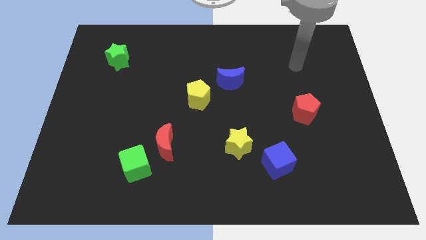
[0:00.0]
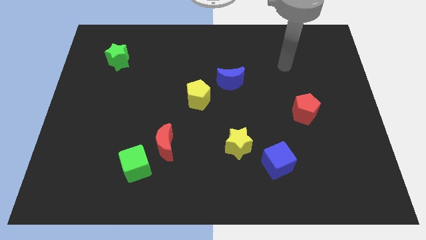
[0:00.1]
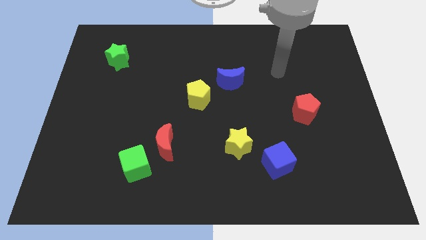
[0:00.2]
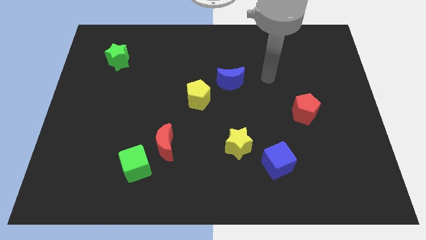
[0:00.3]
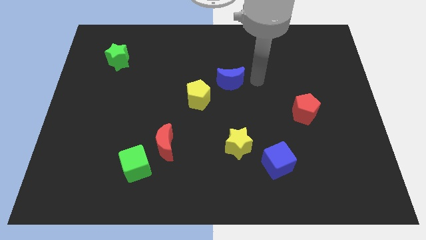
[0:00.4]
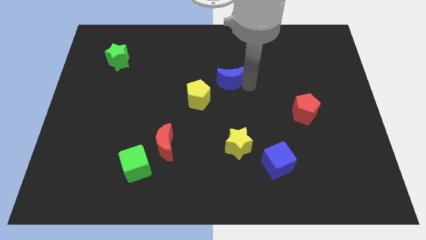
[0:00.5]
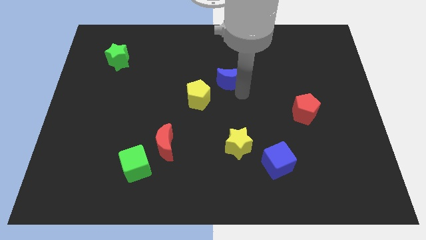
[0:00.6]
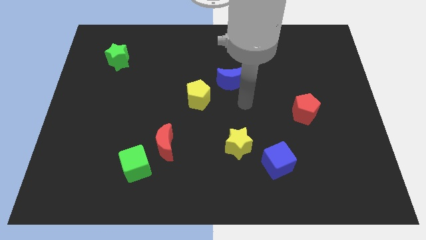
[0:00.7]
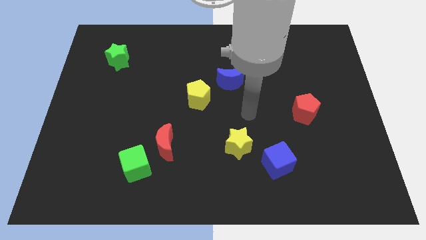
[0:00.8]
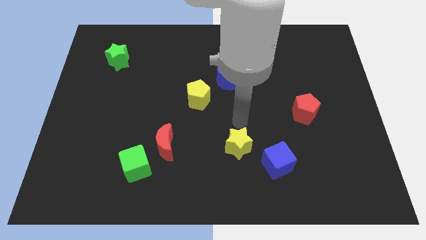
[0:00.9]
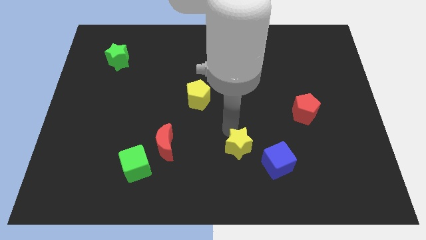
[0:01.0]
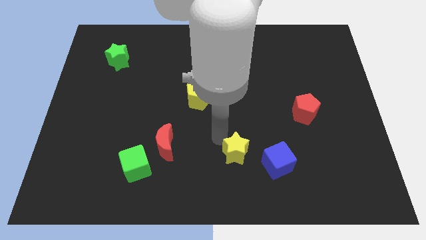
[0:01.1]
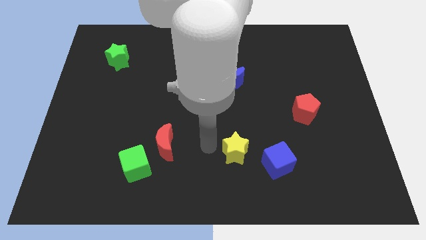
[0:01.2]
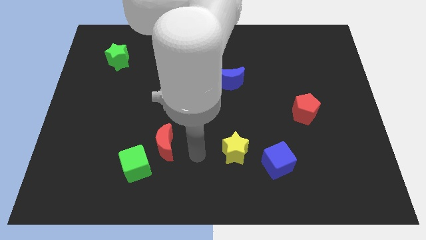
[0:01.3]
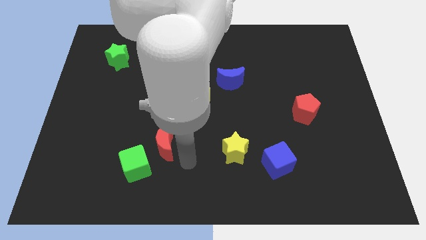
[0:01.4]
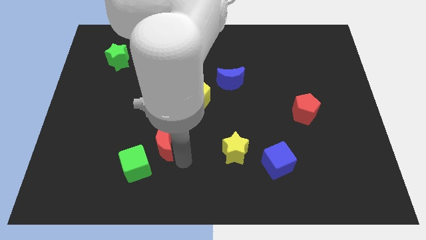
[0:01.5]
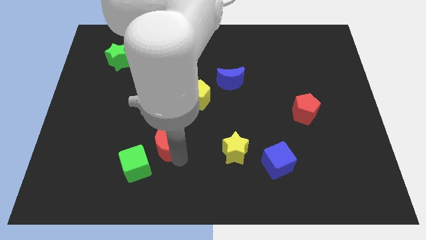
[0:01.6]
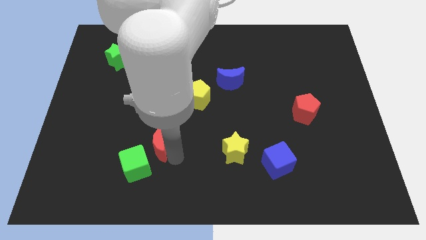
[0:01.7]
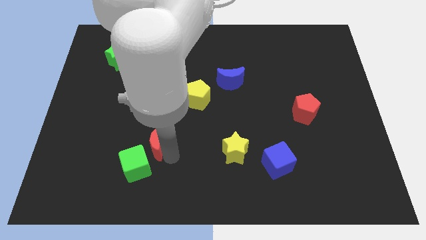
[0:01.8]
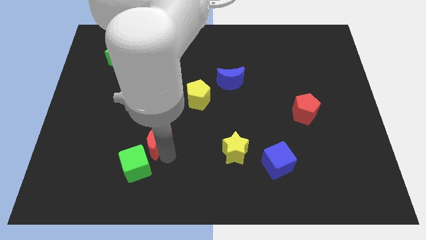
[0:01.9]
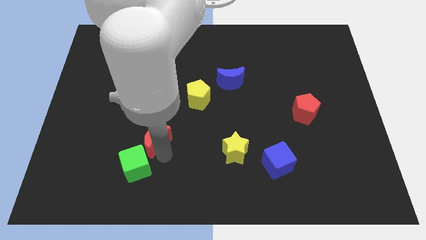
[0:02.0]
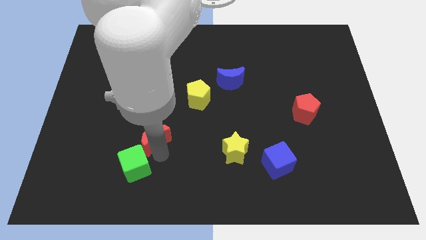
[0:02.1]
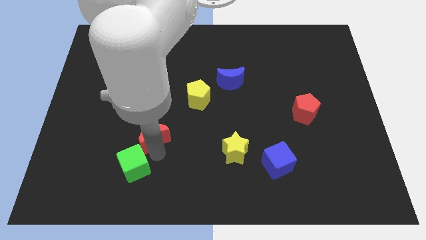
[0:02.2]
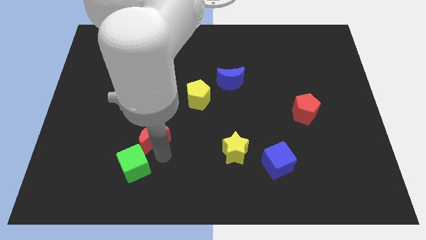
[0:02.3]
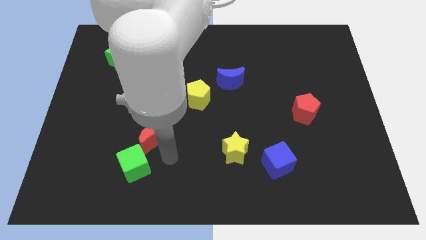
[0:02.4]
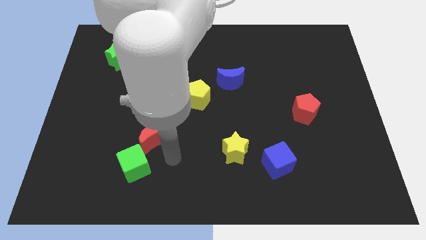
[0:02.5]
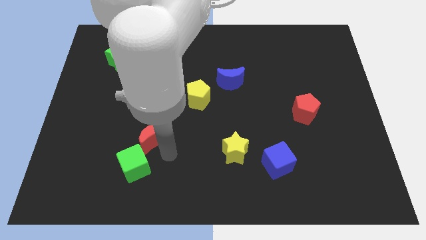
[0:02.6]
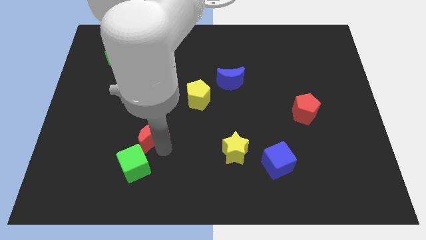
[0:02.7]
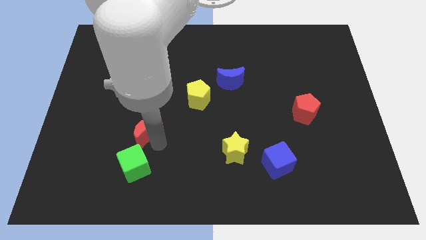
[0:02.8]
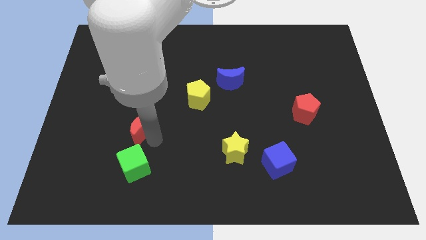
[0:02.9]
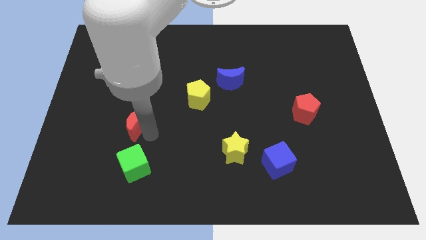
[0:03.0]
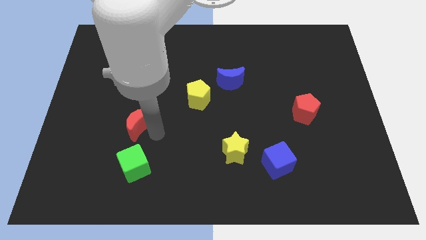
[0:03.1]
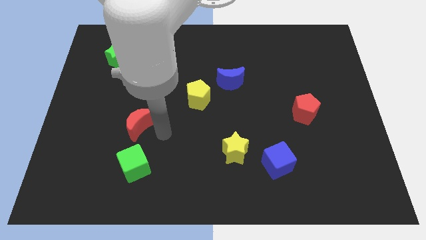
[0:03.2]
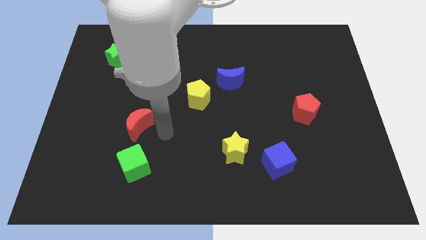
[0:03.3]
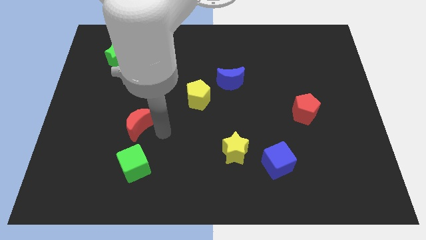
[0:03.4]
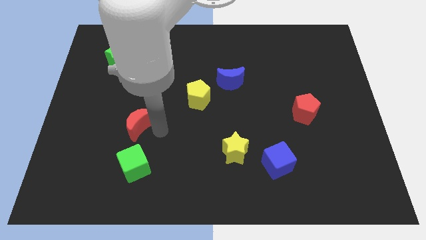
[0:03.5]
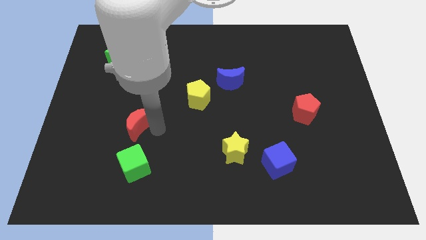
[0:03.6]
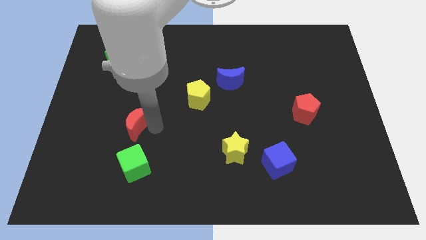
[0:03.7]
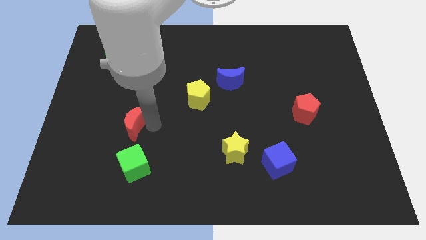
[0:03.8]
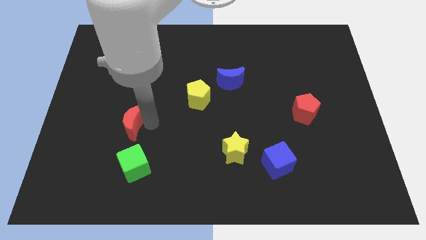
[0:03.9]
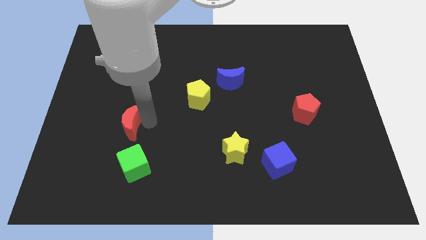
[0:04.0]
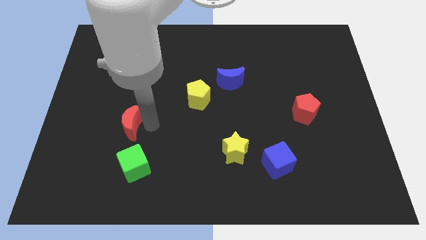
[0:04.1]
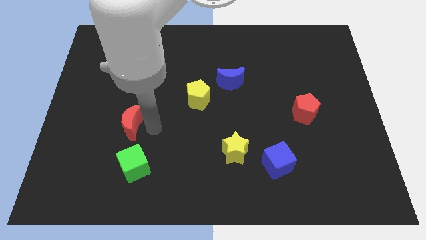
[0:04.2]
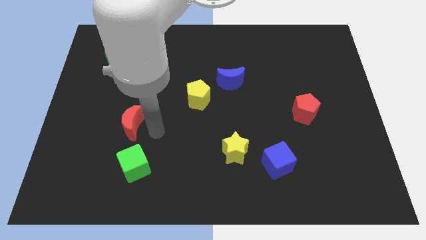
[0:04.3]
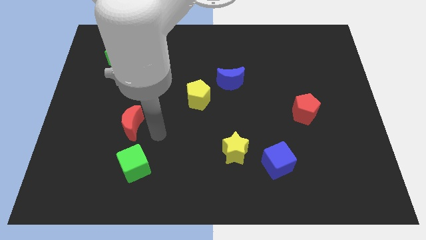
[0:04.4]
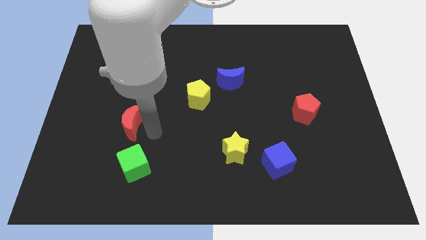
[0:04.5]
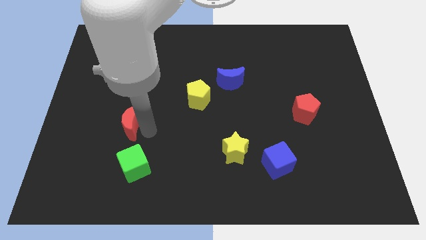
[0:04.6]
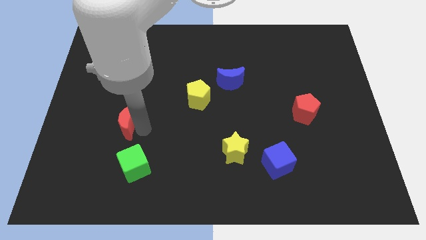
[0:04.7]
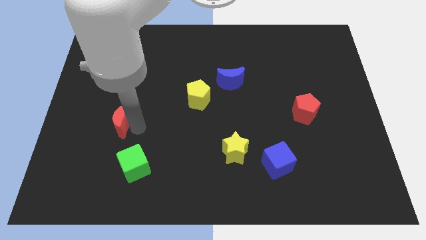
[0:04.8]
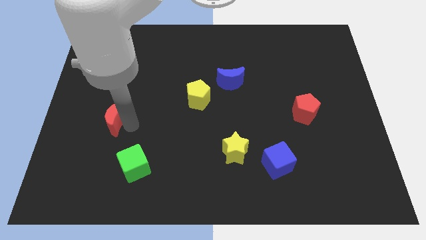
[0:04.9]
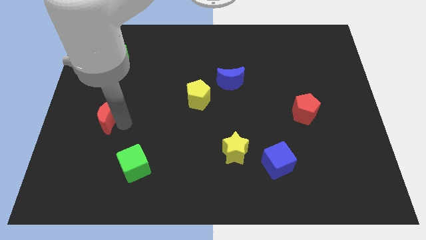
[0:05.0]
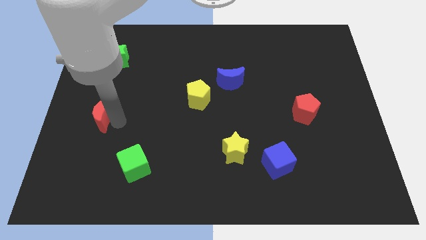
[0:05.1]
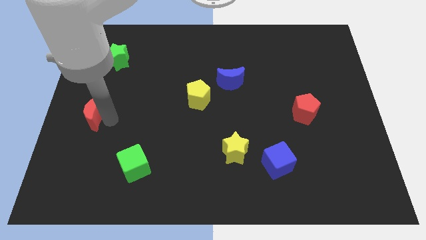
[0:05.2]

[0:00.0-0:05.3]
move the red moon to the center left

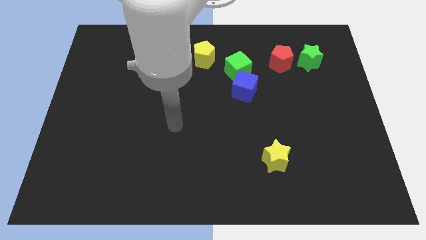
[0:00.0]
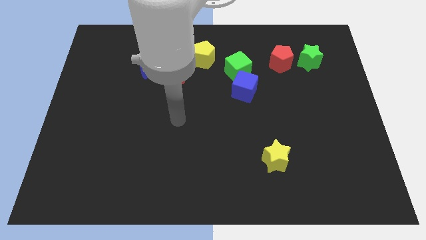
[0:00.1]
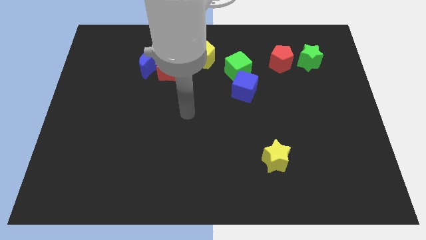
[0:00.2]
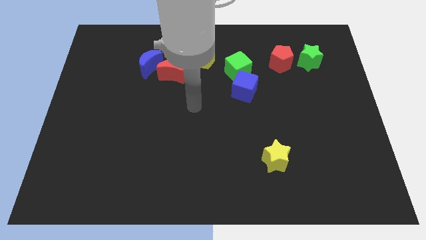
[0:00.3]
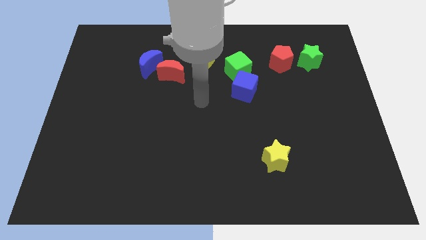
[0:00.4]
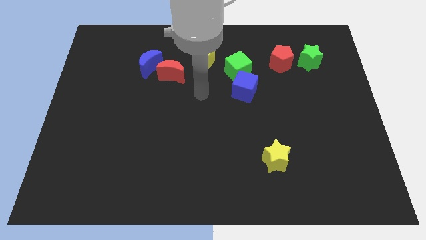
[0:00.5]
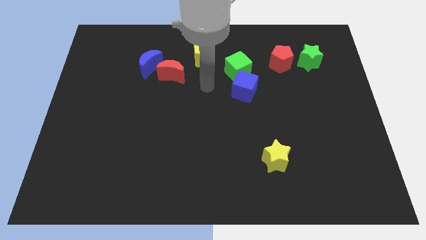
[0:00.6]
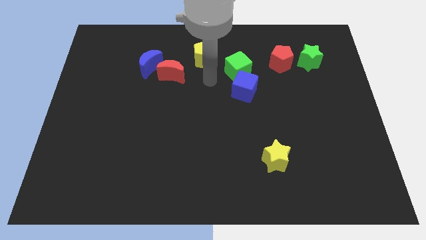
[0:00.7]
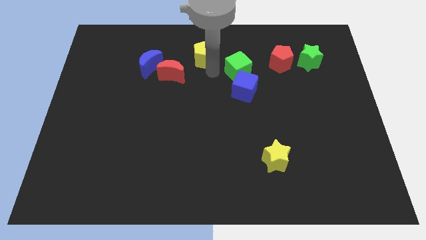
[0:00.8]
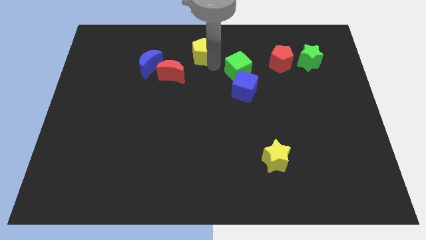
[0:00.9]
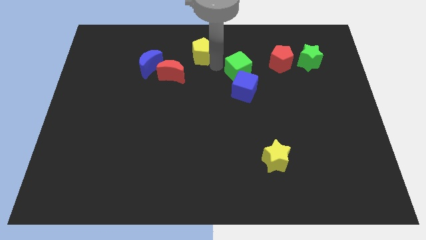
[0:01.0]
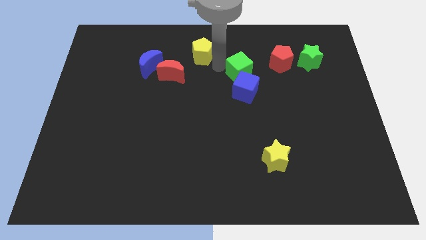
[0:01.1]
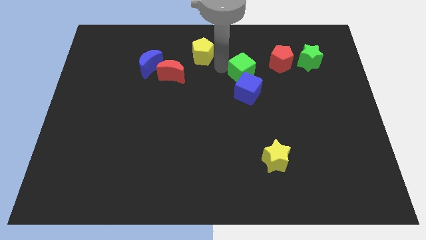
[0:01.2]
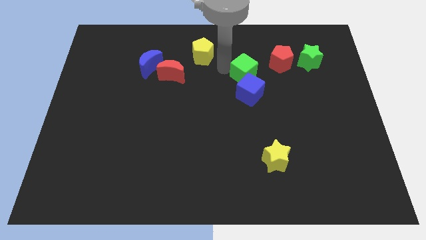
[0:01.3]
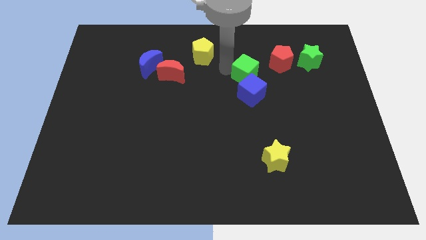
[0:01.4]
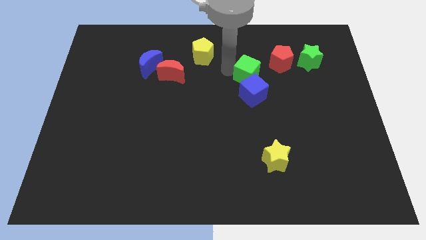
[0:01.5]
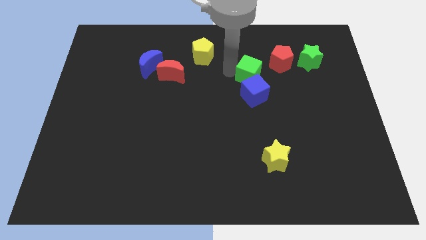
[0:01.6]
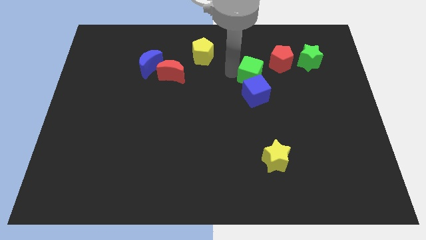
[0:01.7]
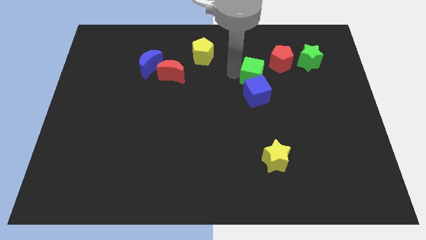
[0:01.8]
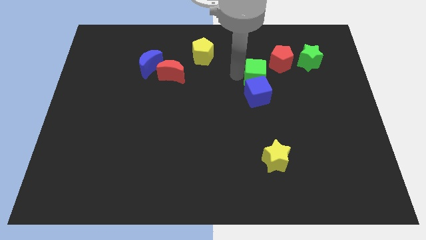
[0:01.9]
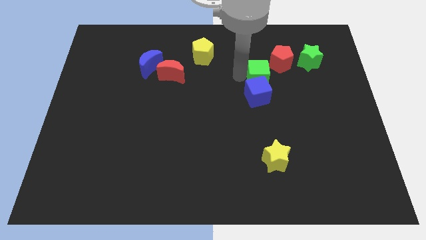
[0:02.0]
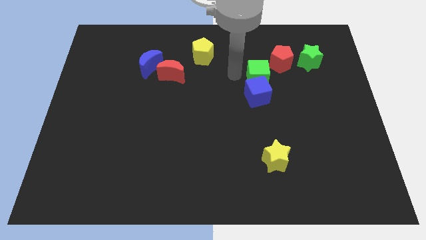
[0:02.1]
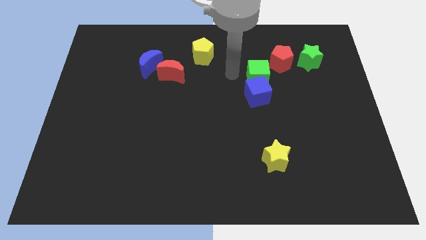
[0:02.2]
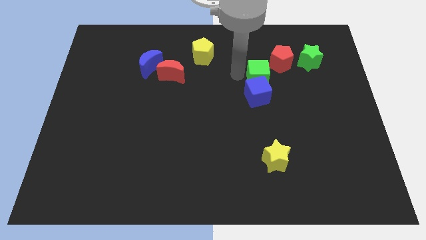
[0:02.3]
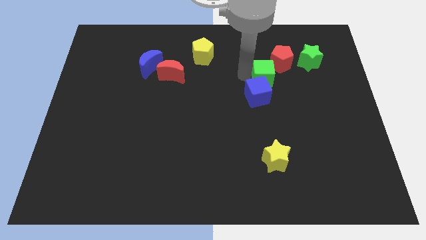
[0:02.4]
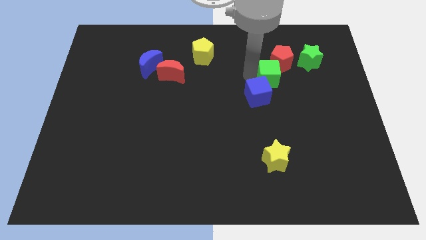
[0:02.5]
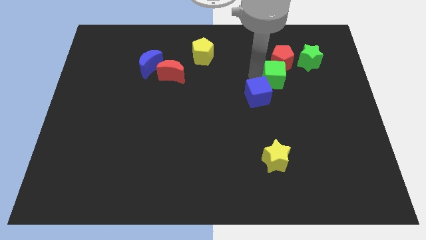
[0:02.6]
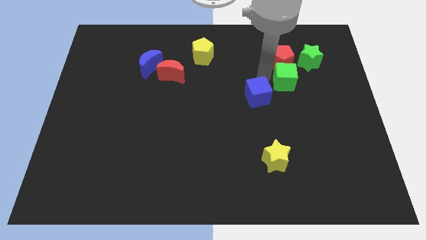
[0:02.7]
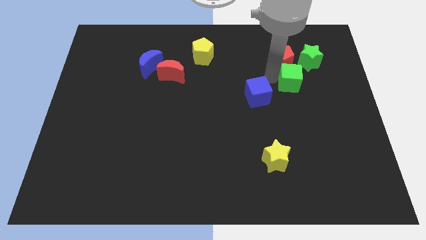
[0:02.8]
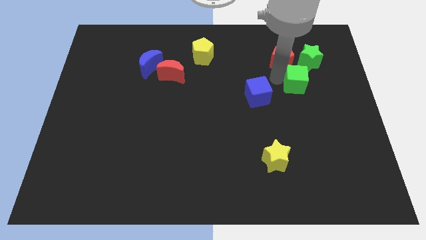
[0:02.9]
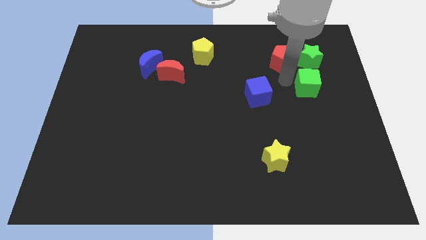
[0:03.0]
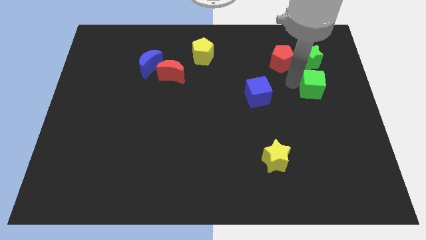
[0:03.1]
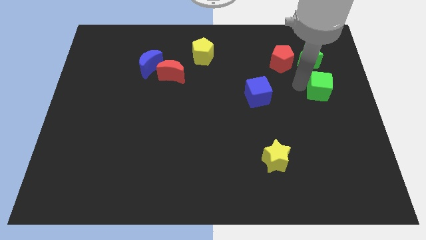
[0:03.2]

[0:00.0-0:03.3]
move the green cube to the center right
